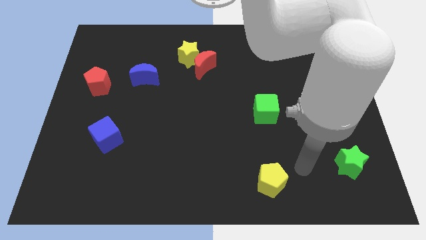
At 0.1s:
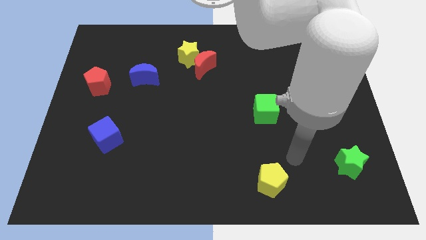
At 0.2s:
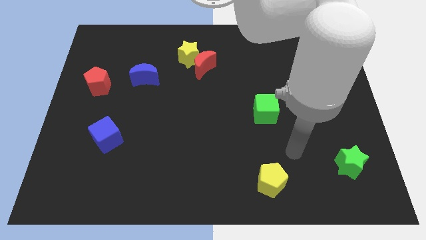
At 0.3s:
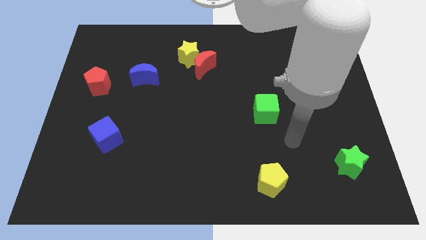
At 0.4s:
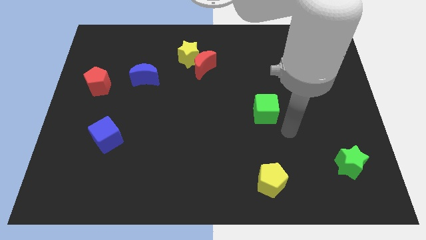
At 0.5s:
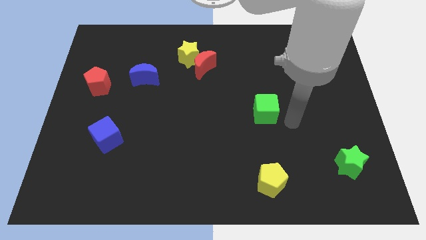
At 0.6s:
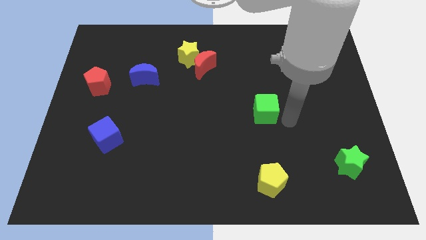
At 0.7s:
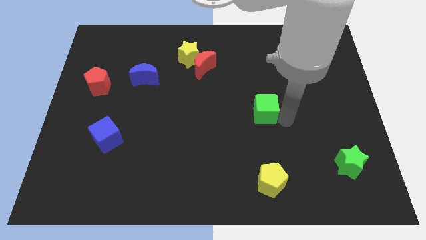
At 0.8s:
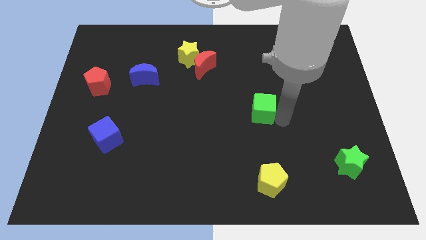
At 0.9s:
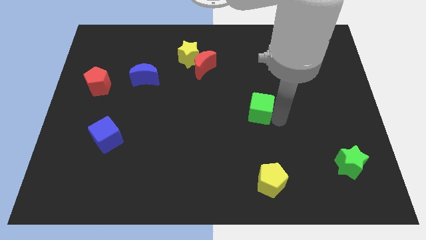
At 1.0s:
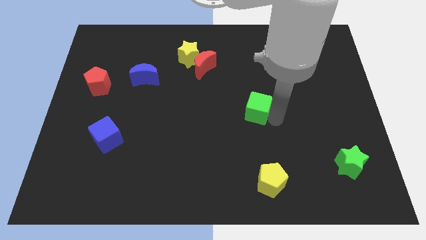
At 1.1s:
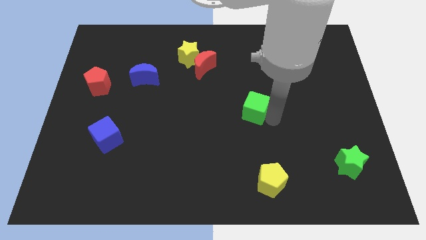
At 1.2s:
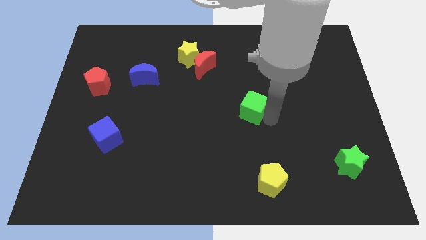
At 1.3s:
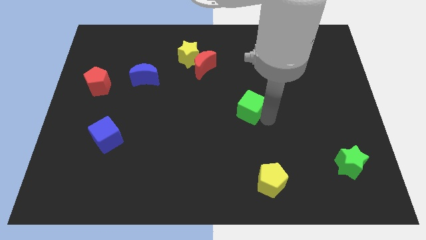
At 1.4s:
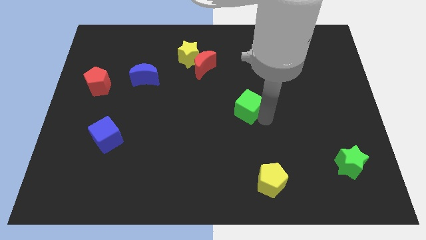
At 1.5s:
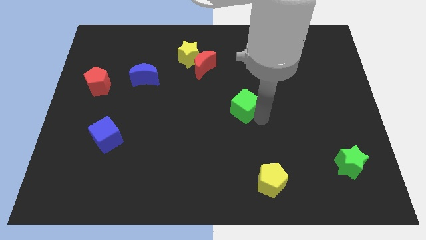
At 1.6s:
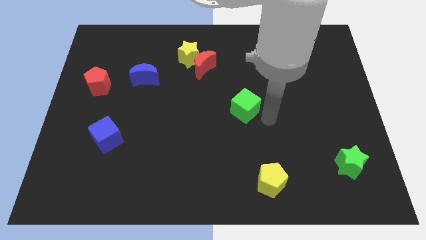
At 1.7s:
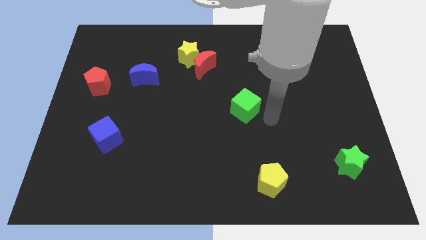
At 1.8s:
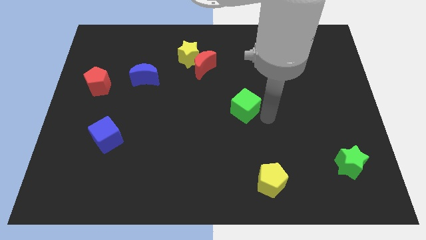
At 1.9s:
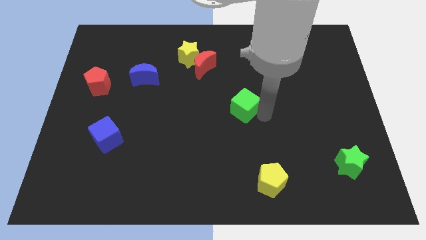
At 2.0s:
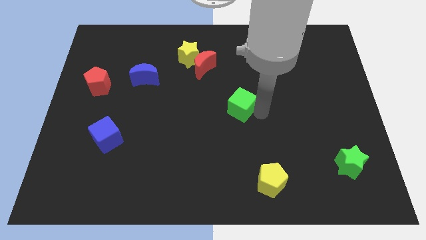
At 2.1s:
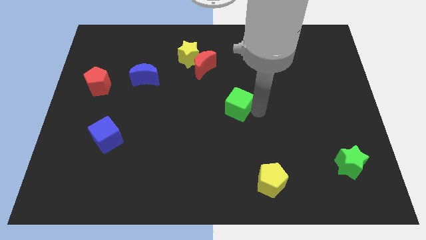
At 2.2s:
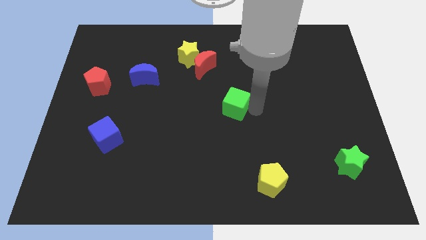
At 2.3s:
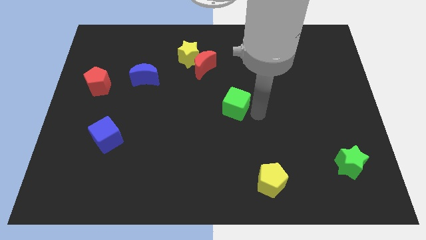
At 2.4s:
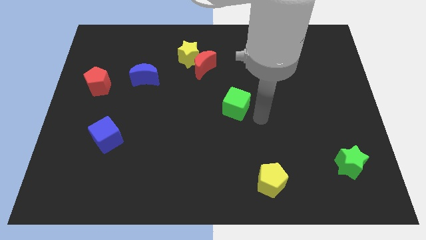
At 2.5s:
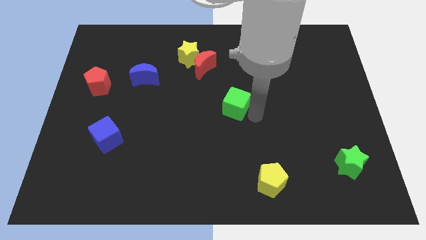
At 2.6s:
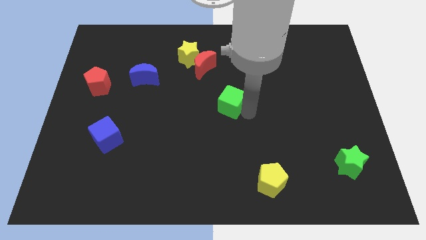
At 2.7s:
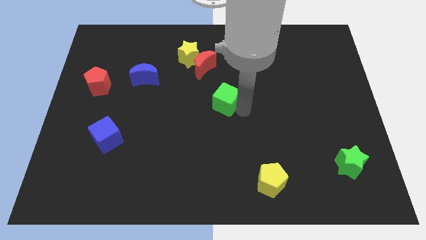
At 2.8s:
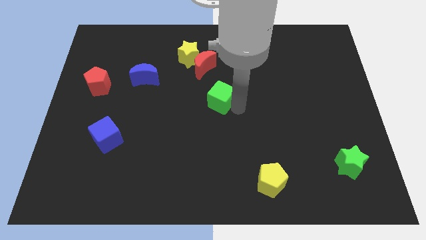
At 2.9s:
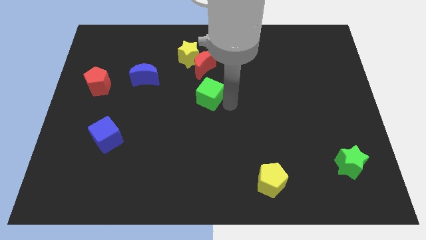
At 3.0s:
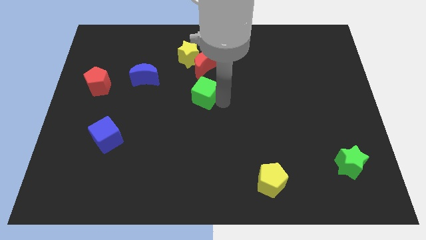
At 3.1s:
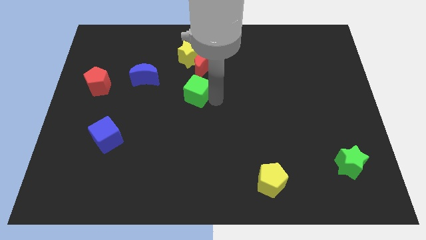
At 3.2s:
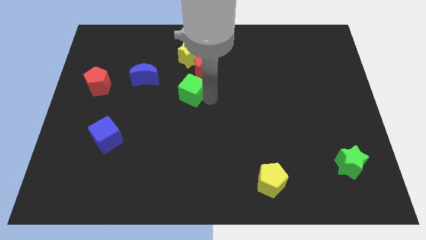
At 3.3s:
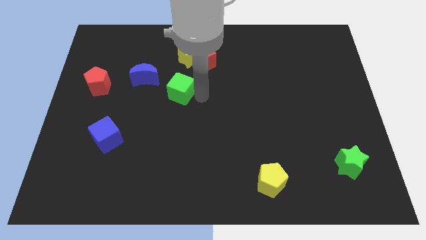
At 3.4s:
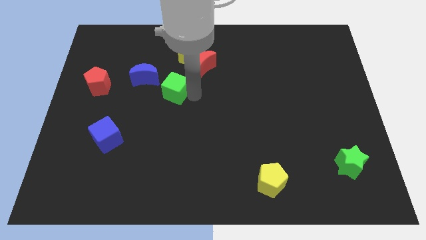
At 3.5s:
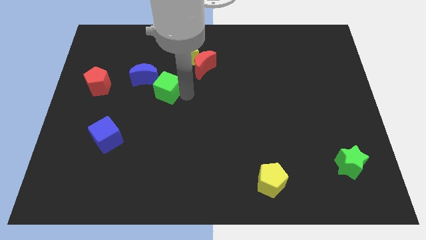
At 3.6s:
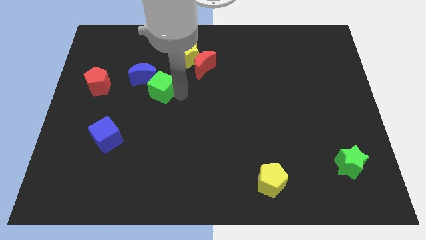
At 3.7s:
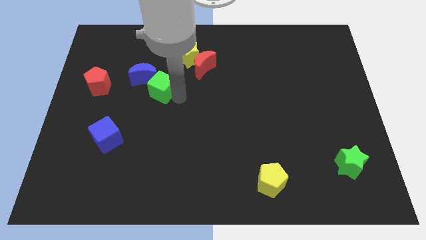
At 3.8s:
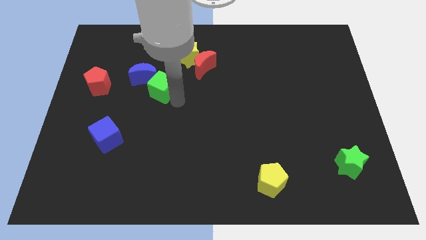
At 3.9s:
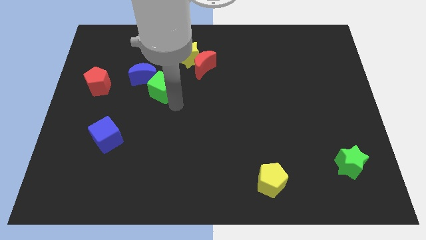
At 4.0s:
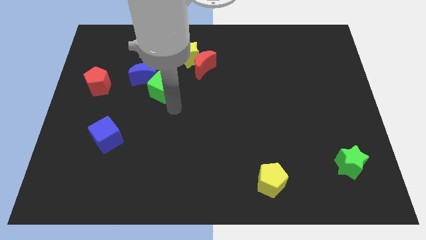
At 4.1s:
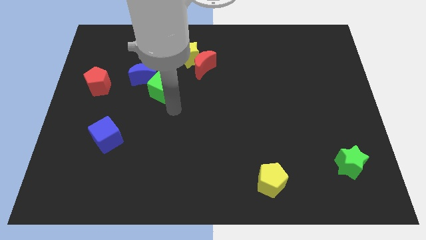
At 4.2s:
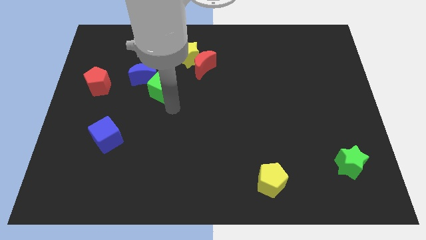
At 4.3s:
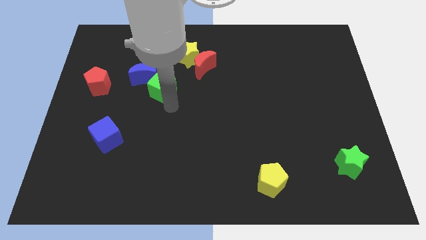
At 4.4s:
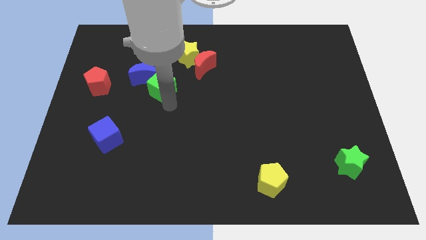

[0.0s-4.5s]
move the green cube towards the blue moon

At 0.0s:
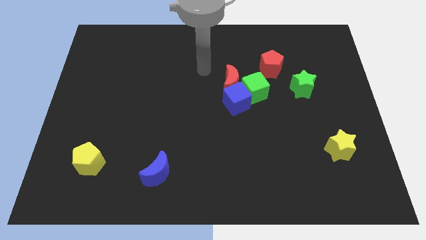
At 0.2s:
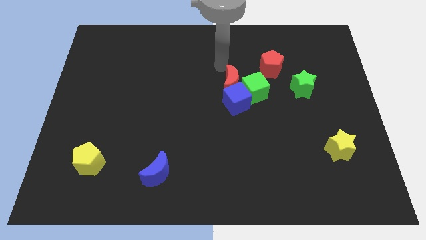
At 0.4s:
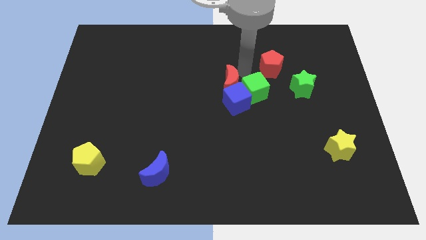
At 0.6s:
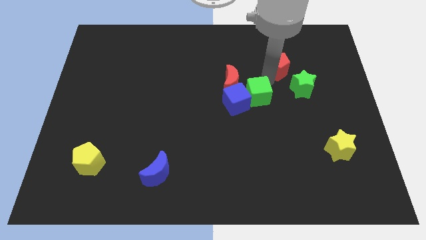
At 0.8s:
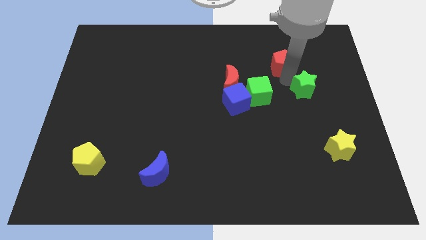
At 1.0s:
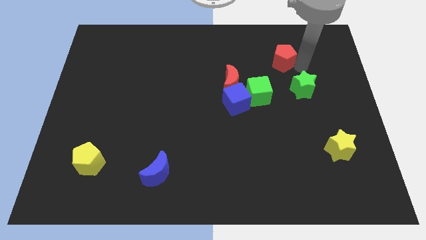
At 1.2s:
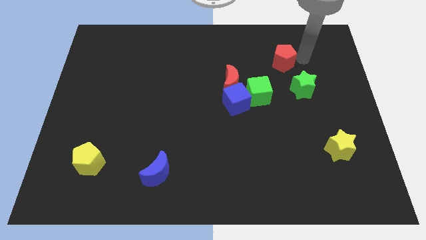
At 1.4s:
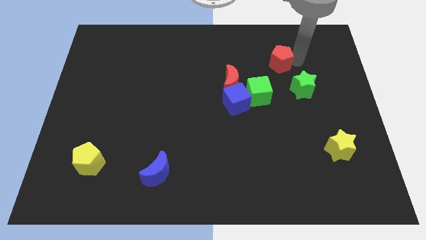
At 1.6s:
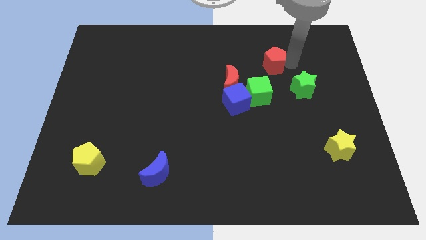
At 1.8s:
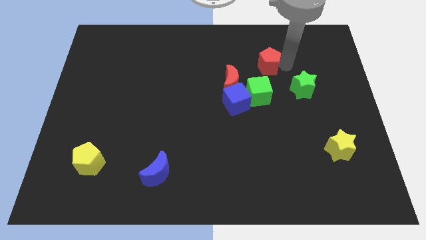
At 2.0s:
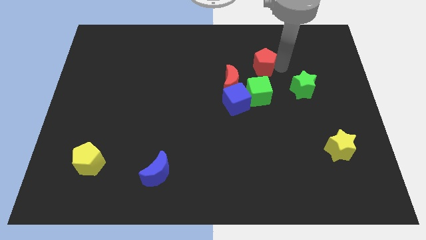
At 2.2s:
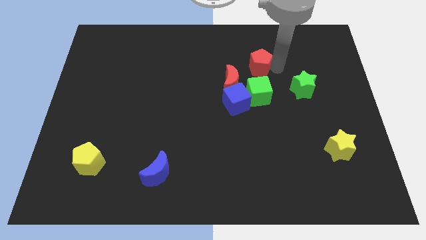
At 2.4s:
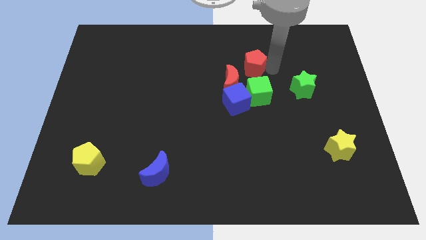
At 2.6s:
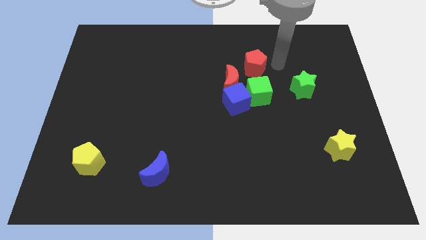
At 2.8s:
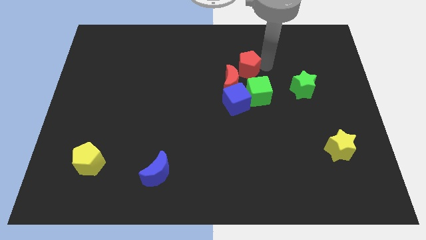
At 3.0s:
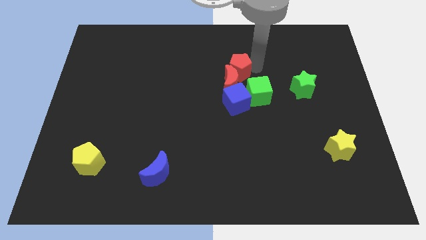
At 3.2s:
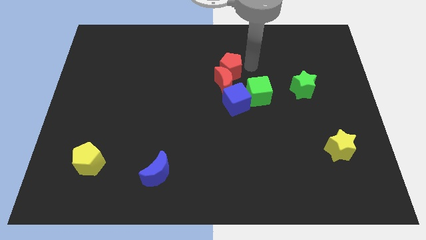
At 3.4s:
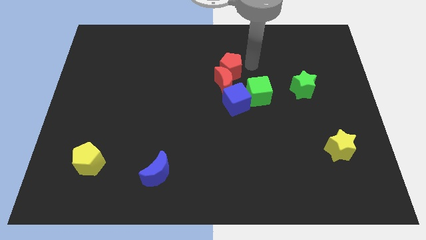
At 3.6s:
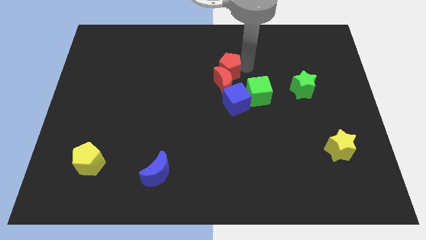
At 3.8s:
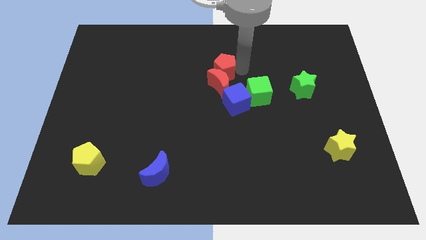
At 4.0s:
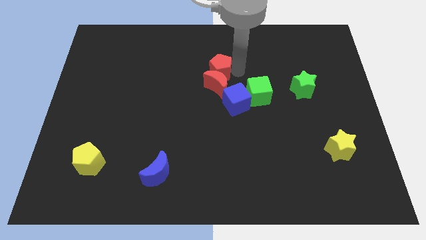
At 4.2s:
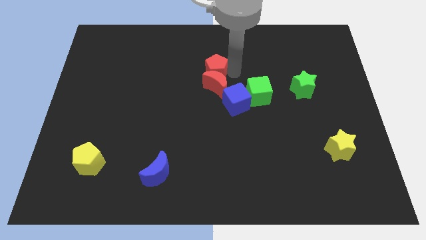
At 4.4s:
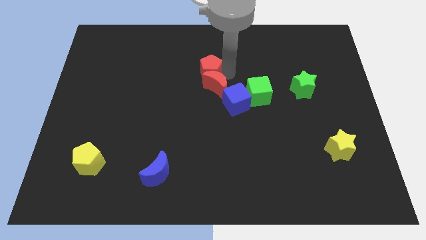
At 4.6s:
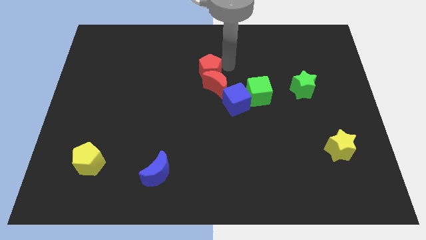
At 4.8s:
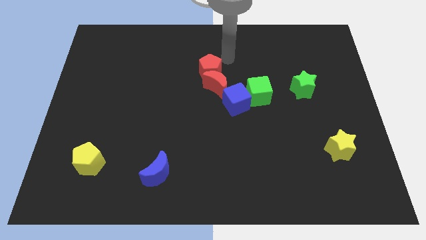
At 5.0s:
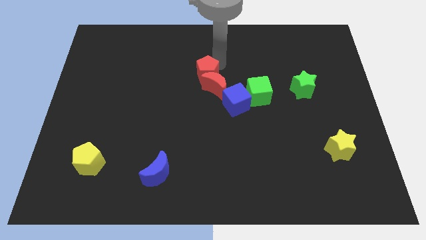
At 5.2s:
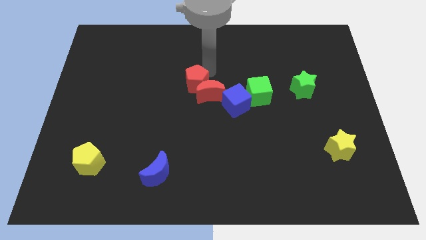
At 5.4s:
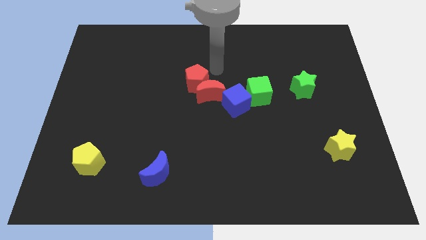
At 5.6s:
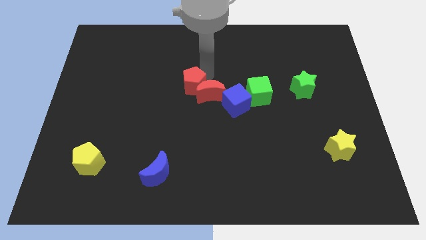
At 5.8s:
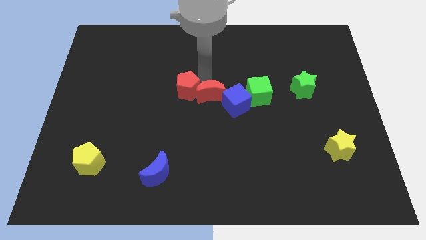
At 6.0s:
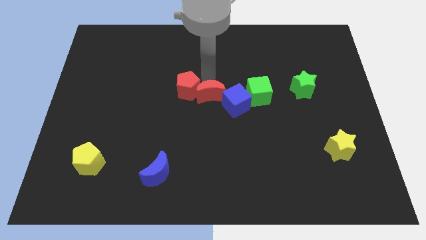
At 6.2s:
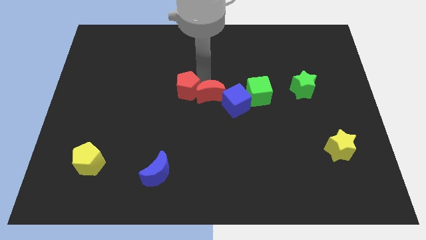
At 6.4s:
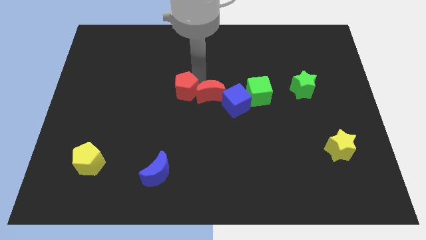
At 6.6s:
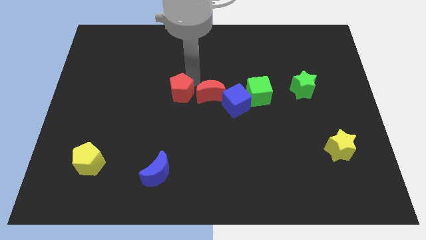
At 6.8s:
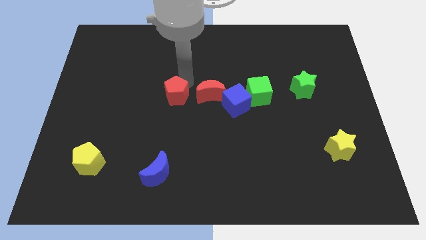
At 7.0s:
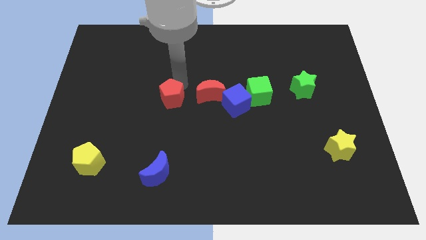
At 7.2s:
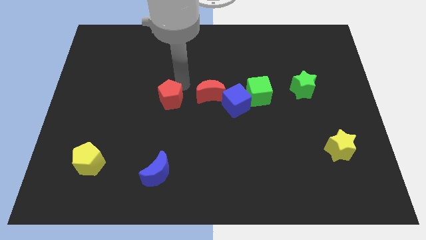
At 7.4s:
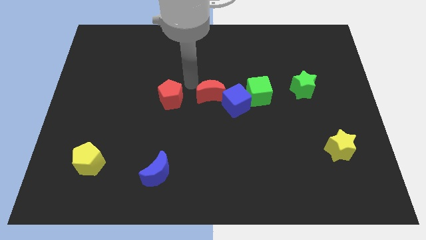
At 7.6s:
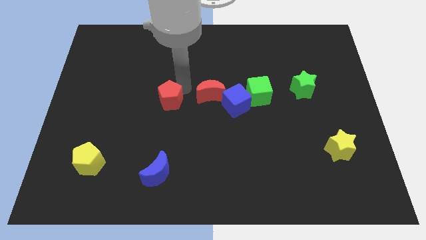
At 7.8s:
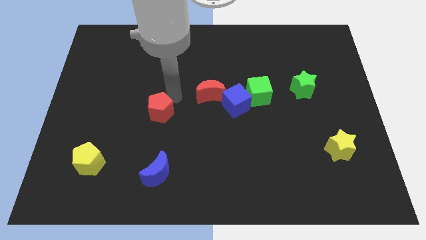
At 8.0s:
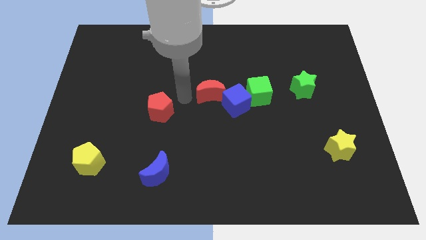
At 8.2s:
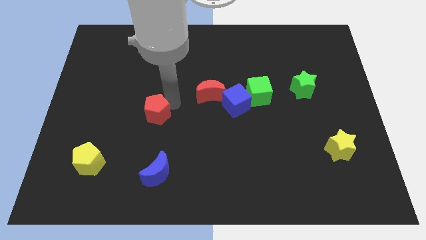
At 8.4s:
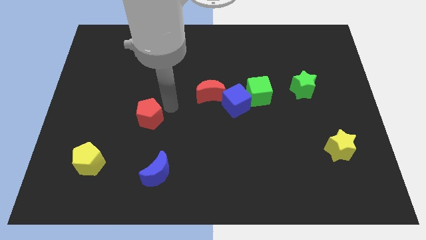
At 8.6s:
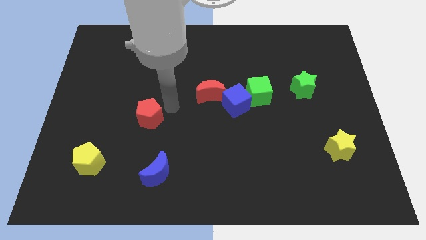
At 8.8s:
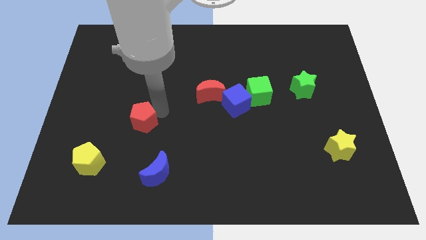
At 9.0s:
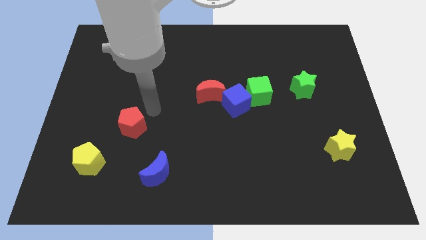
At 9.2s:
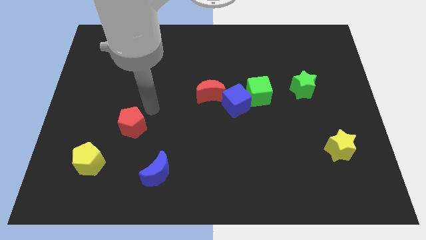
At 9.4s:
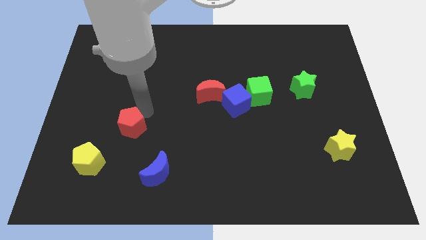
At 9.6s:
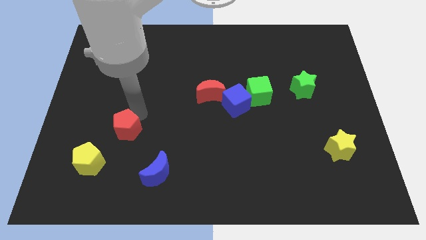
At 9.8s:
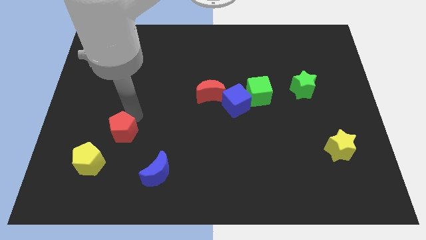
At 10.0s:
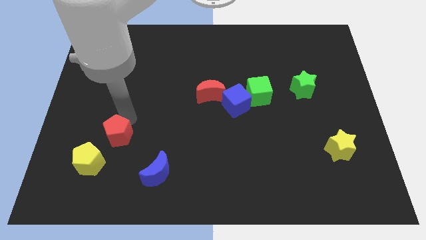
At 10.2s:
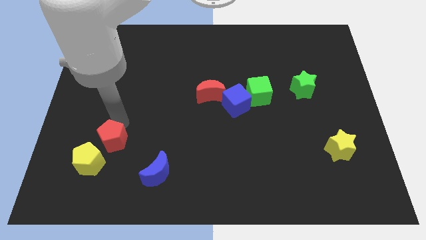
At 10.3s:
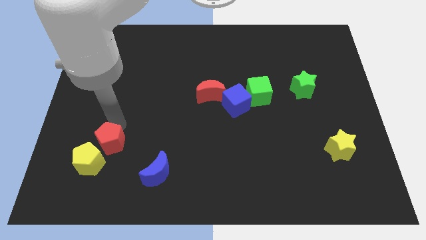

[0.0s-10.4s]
move the red pentagon next to the yellow pentagon
